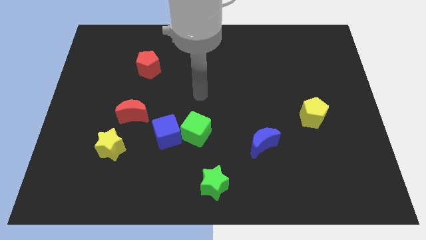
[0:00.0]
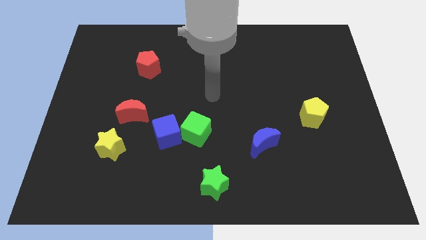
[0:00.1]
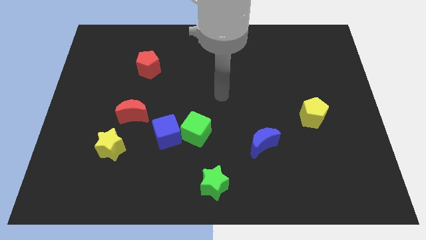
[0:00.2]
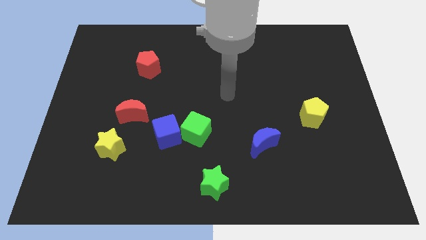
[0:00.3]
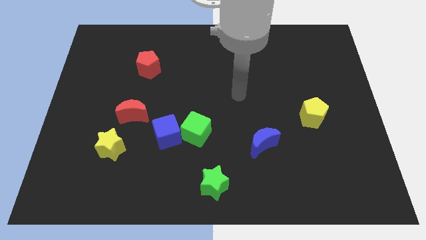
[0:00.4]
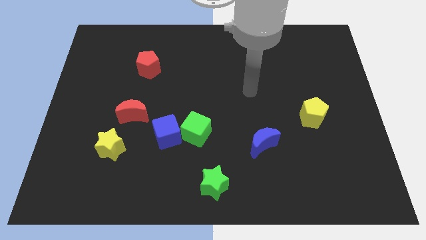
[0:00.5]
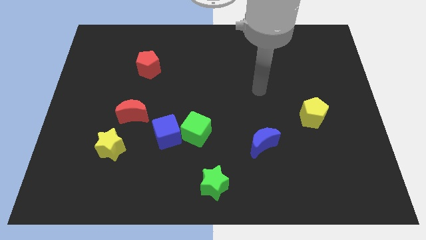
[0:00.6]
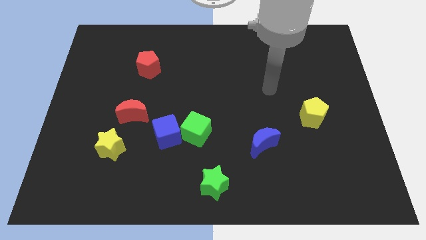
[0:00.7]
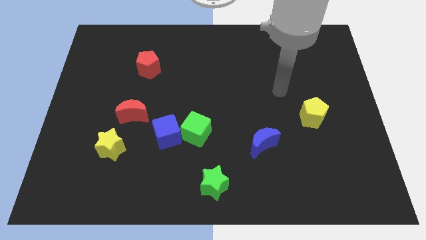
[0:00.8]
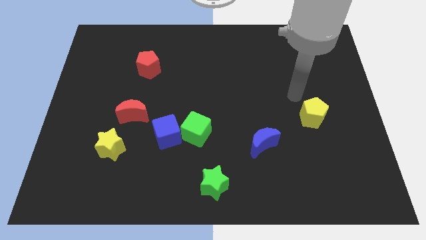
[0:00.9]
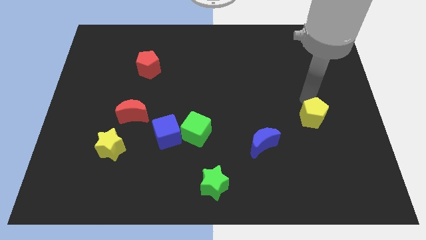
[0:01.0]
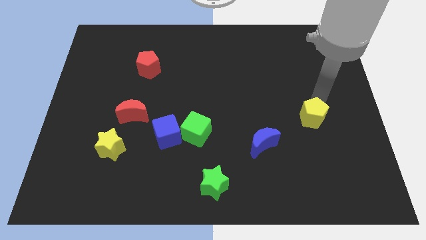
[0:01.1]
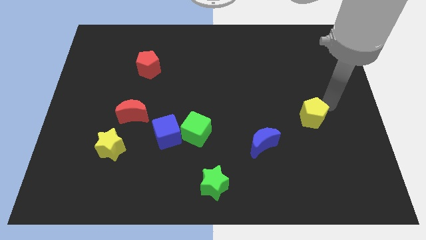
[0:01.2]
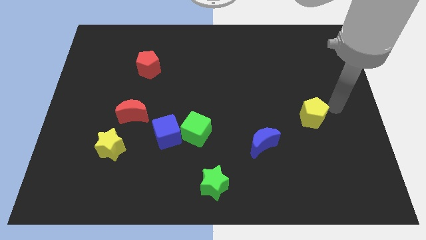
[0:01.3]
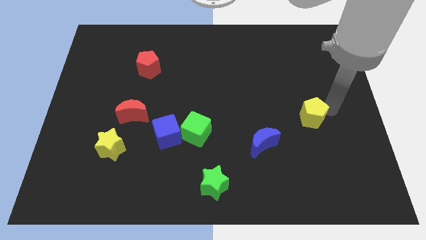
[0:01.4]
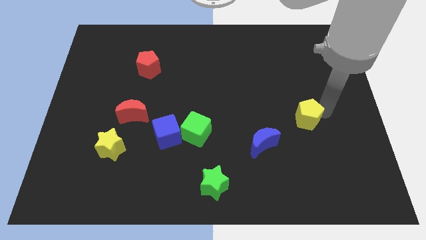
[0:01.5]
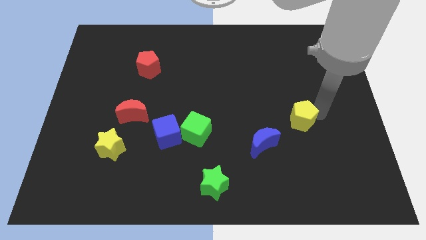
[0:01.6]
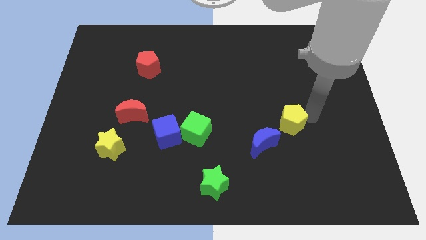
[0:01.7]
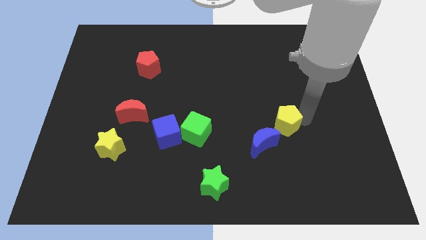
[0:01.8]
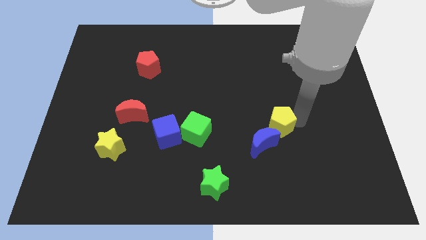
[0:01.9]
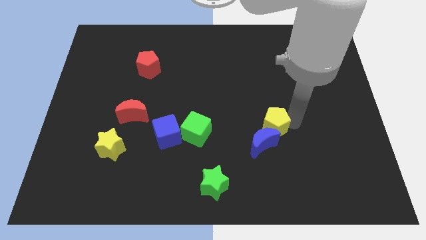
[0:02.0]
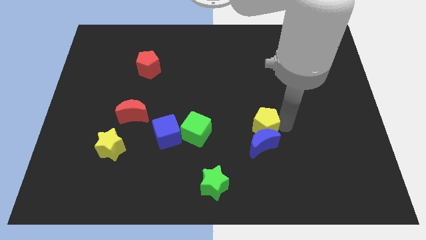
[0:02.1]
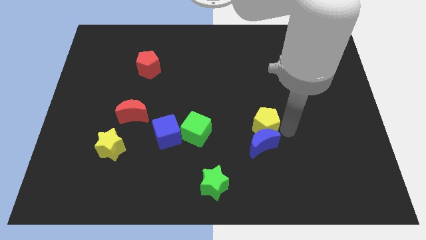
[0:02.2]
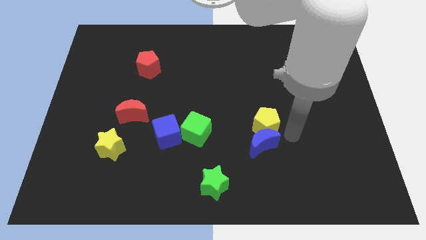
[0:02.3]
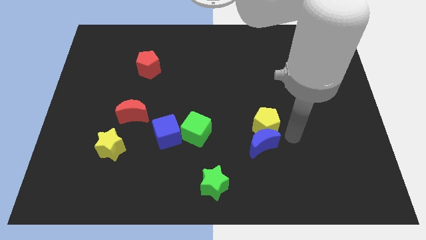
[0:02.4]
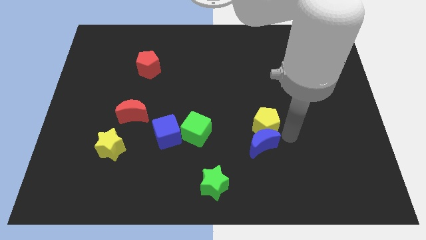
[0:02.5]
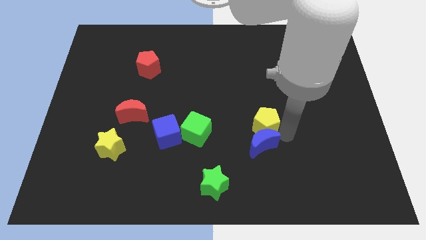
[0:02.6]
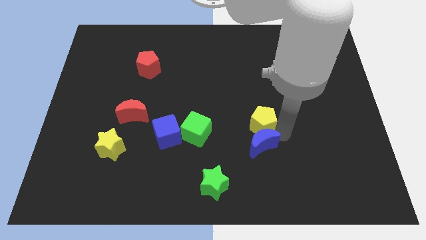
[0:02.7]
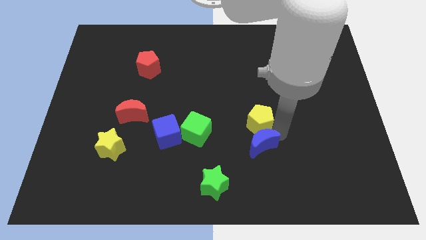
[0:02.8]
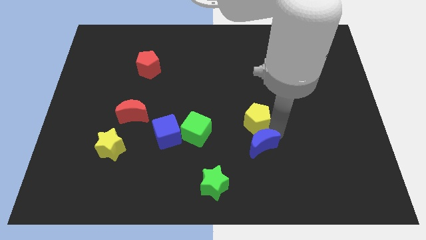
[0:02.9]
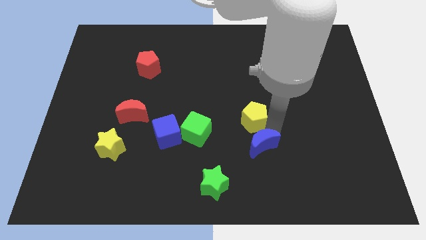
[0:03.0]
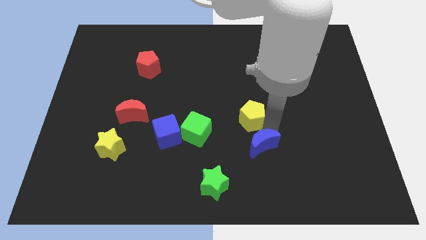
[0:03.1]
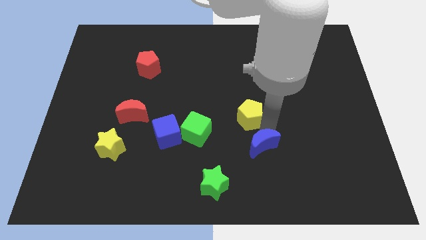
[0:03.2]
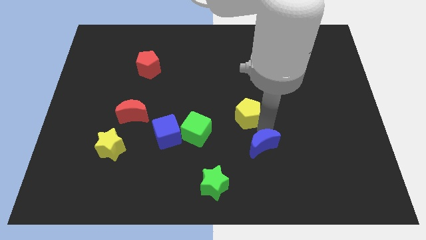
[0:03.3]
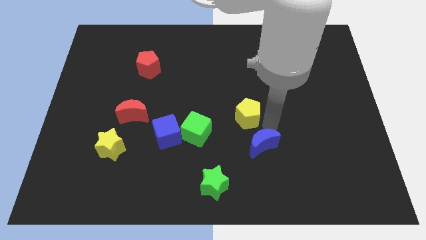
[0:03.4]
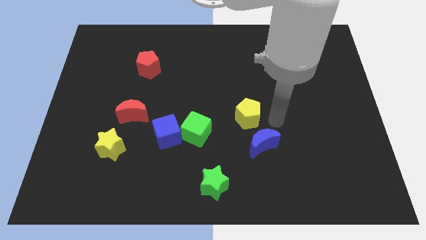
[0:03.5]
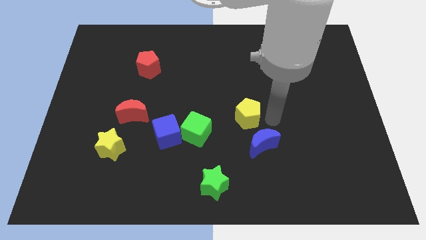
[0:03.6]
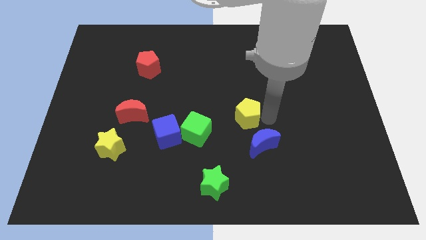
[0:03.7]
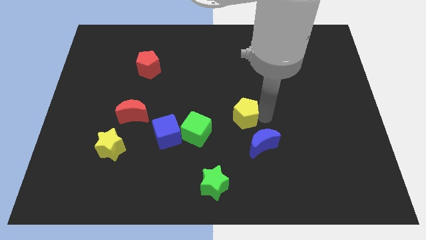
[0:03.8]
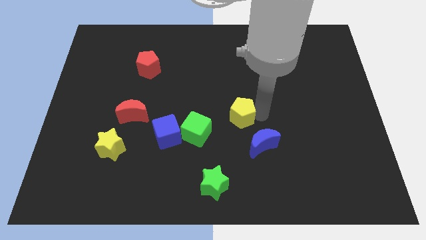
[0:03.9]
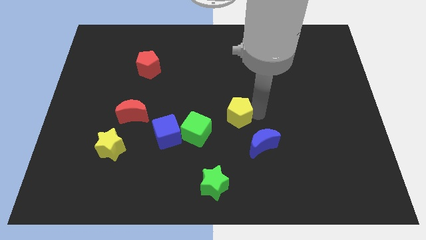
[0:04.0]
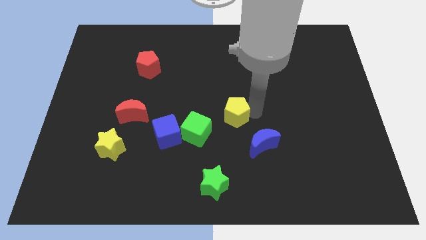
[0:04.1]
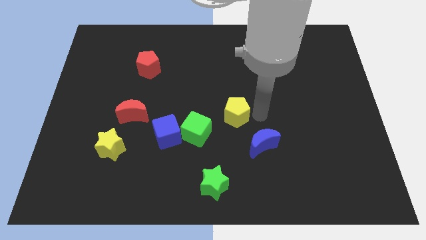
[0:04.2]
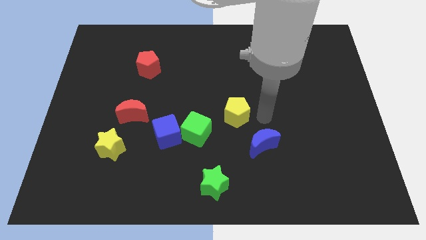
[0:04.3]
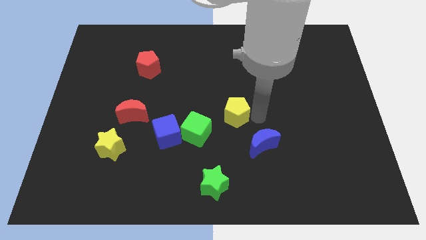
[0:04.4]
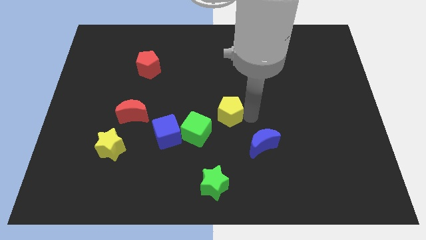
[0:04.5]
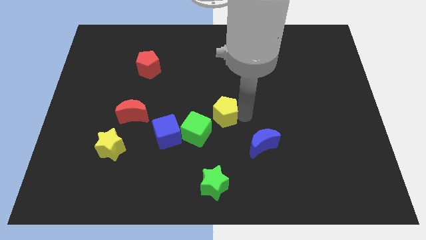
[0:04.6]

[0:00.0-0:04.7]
push the yellow pentagon to the left

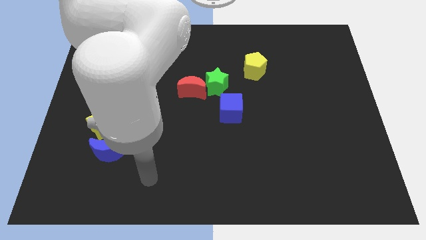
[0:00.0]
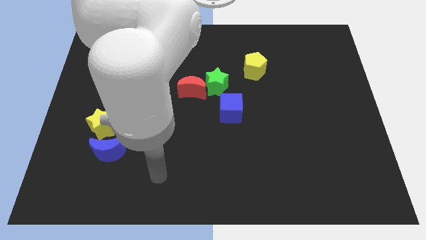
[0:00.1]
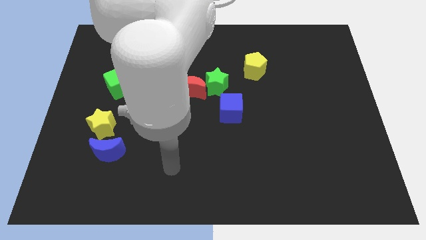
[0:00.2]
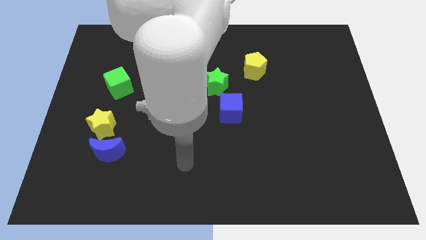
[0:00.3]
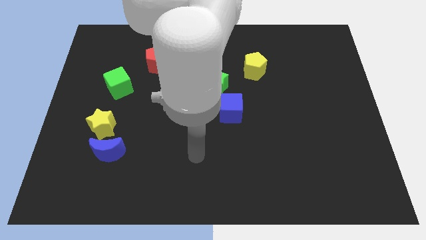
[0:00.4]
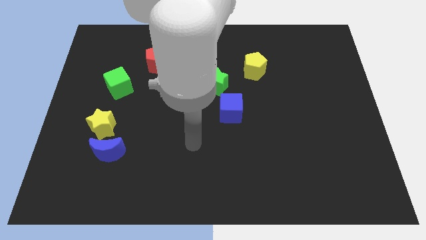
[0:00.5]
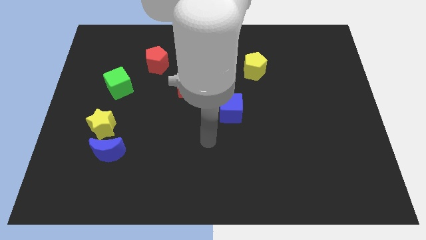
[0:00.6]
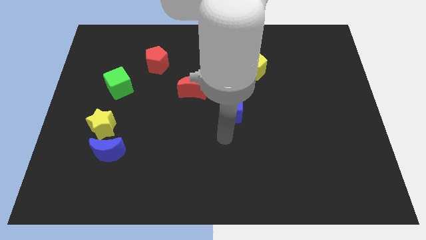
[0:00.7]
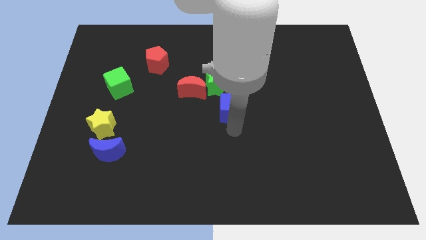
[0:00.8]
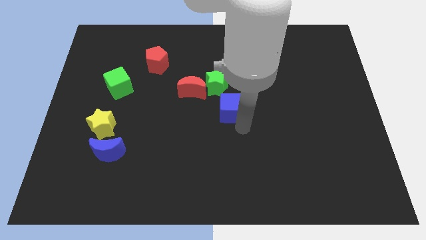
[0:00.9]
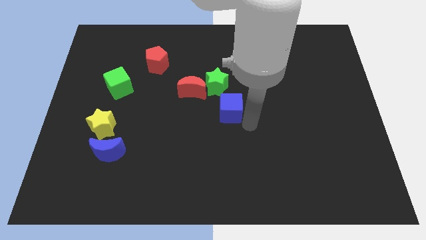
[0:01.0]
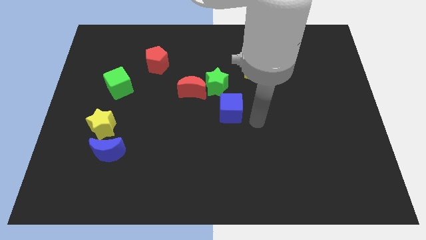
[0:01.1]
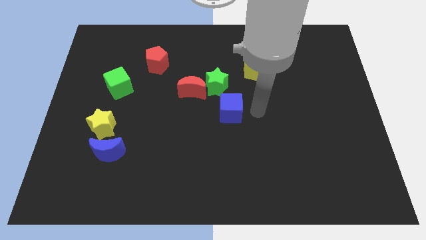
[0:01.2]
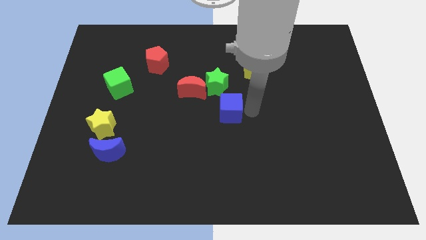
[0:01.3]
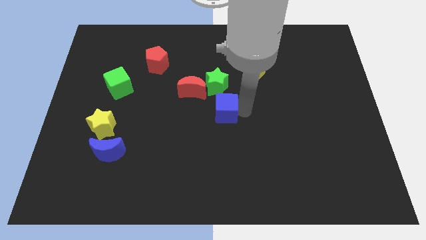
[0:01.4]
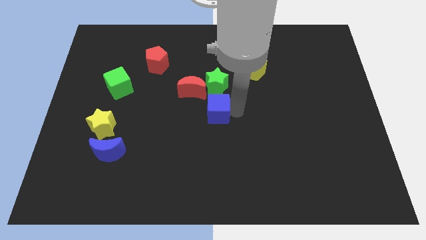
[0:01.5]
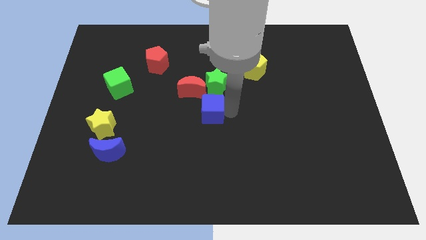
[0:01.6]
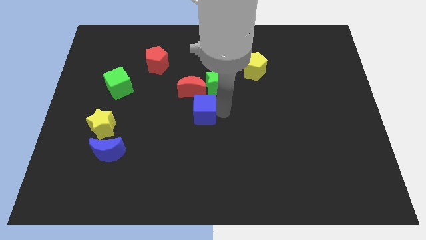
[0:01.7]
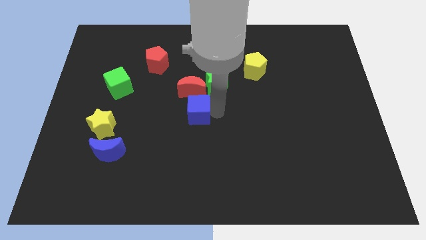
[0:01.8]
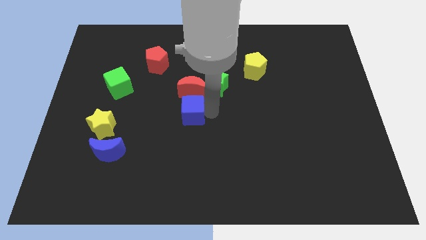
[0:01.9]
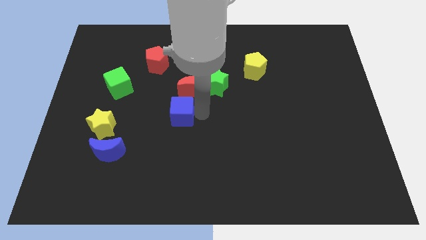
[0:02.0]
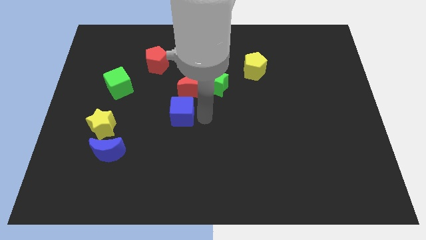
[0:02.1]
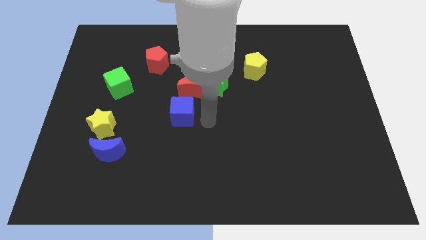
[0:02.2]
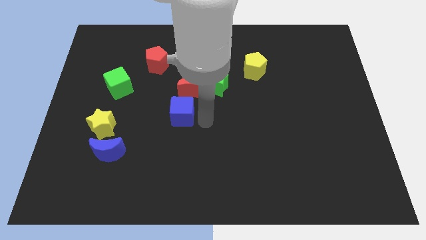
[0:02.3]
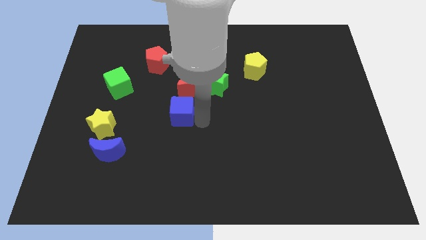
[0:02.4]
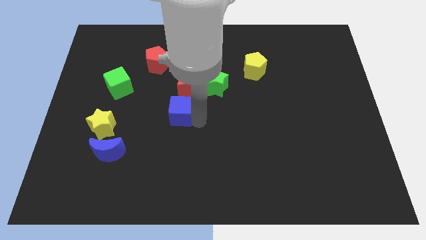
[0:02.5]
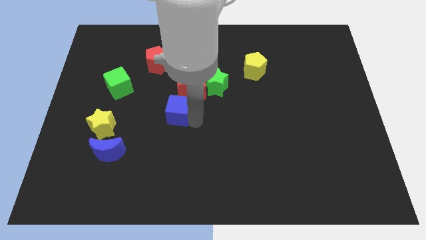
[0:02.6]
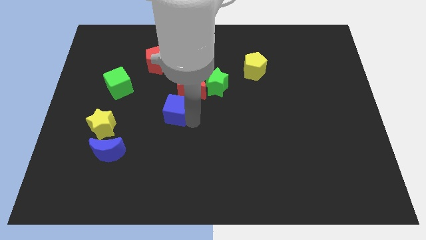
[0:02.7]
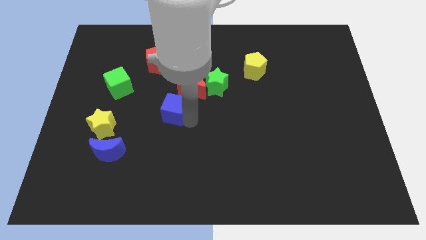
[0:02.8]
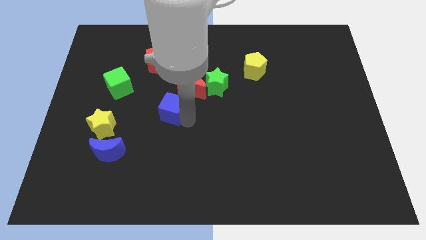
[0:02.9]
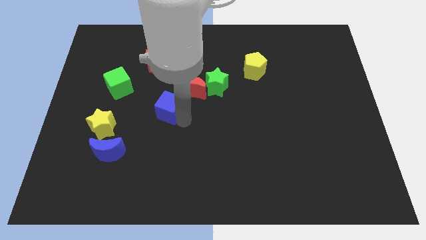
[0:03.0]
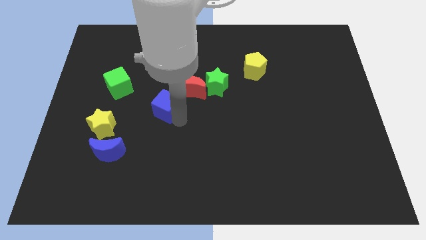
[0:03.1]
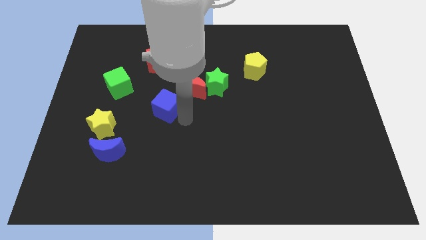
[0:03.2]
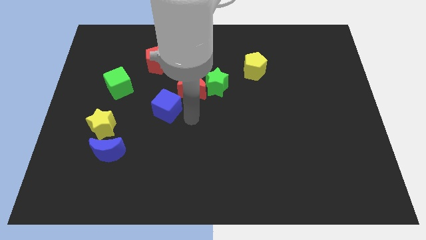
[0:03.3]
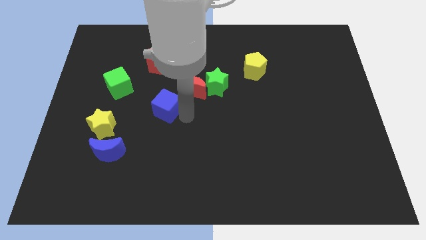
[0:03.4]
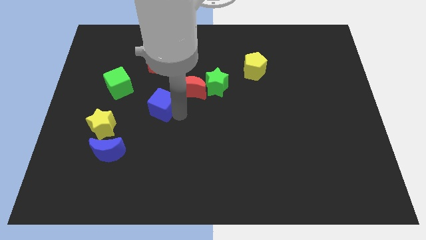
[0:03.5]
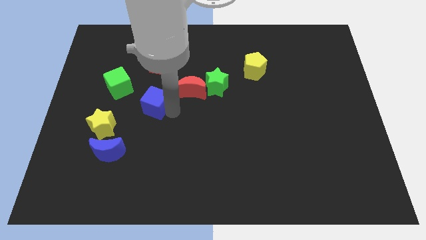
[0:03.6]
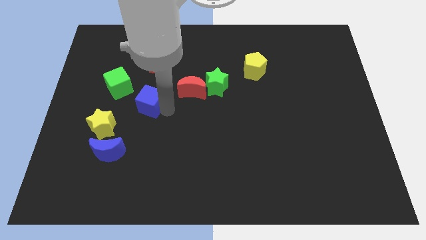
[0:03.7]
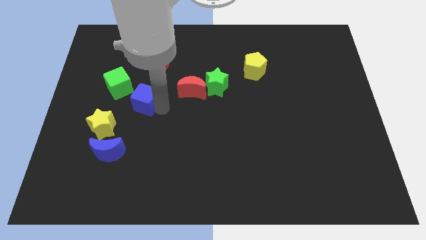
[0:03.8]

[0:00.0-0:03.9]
move the blue cube to the left
